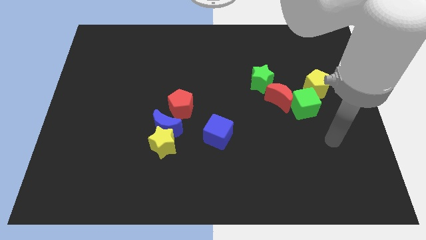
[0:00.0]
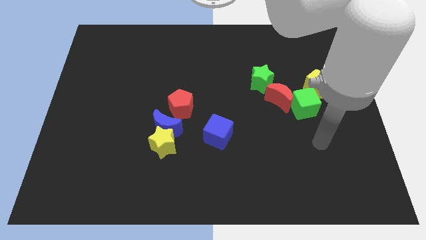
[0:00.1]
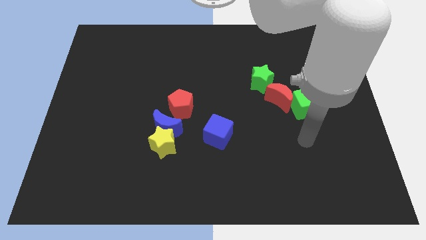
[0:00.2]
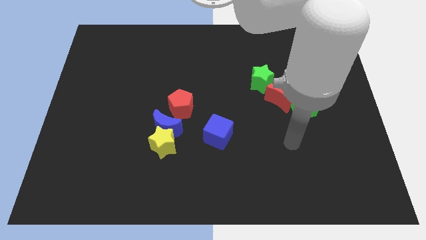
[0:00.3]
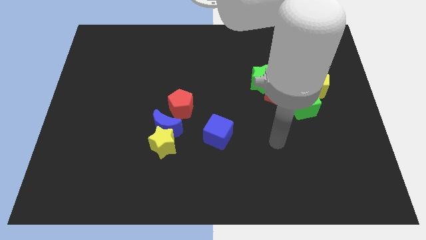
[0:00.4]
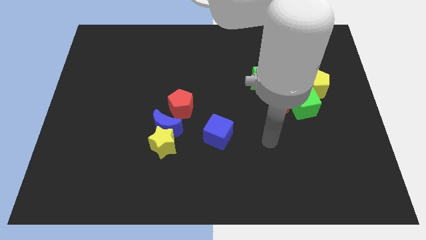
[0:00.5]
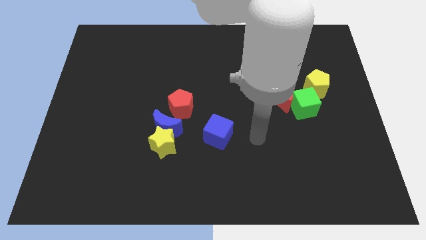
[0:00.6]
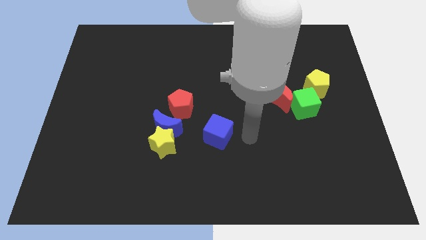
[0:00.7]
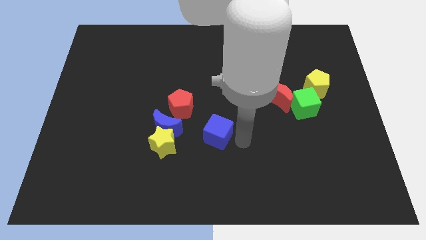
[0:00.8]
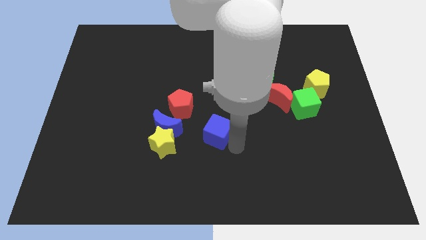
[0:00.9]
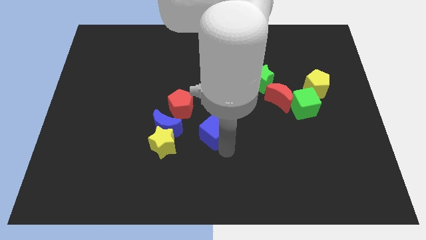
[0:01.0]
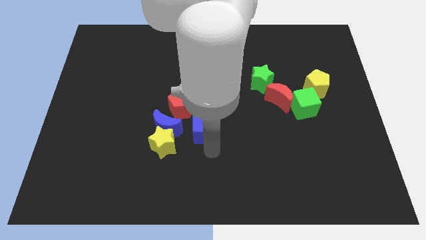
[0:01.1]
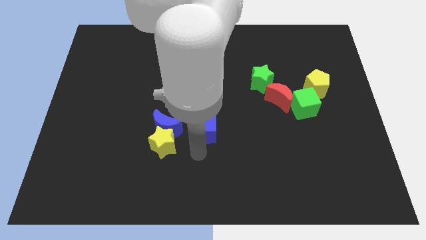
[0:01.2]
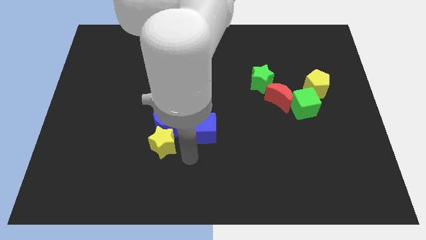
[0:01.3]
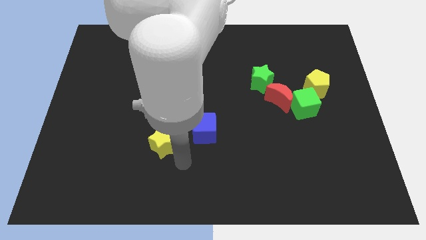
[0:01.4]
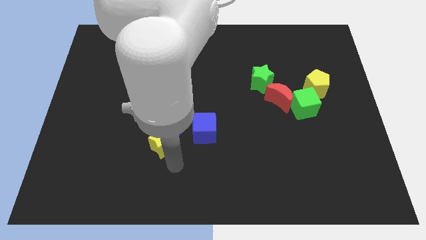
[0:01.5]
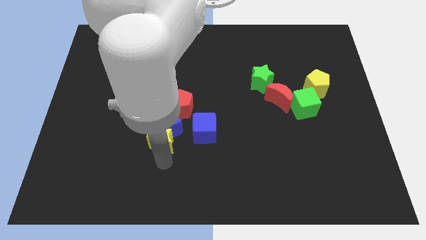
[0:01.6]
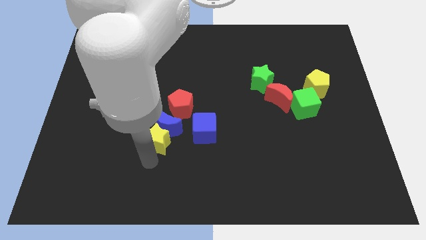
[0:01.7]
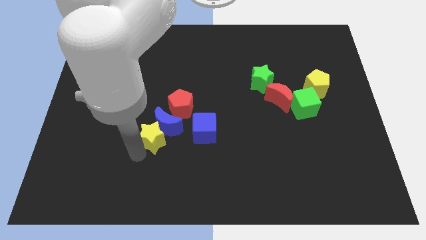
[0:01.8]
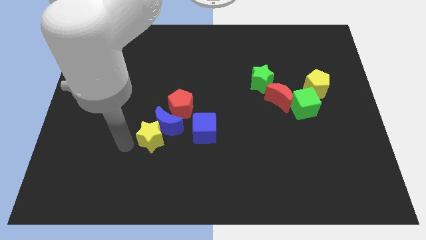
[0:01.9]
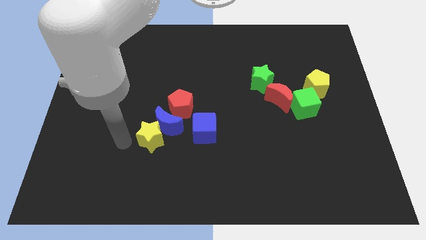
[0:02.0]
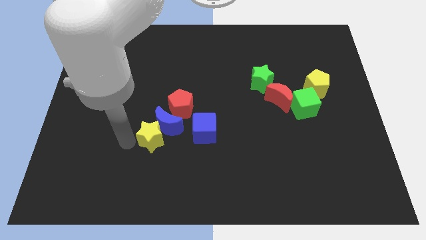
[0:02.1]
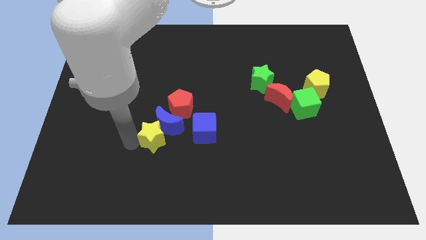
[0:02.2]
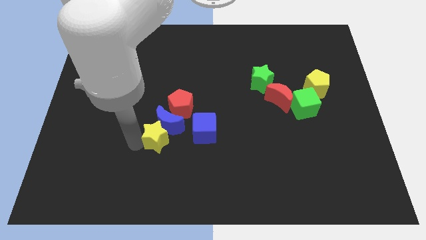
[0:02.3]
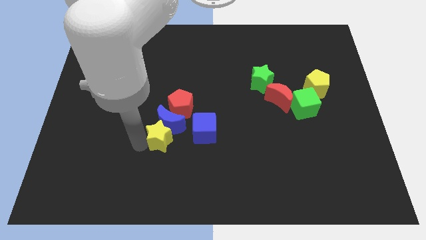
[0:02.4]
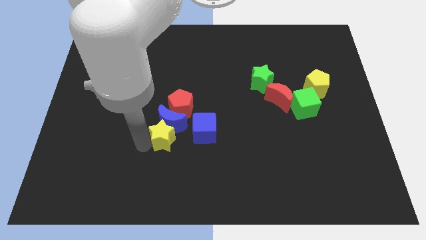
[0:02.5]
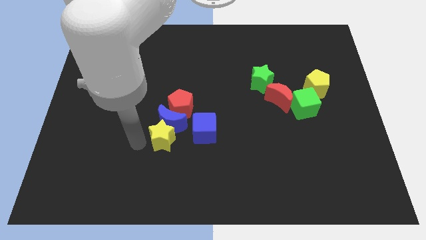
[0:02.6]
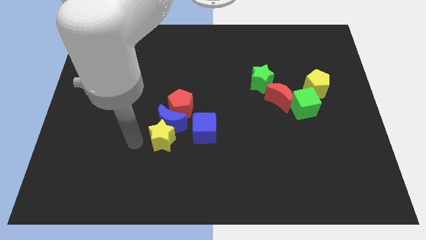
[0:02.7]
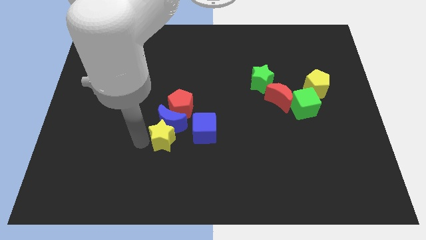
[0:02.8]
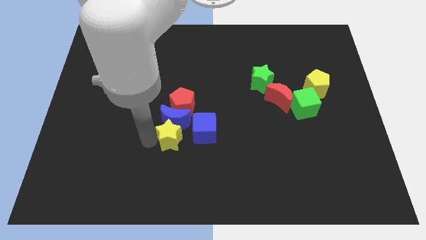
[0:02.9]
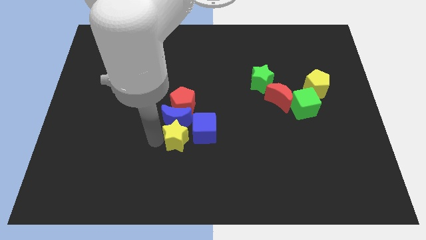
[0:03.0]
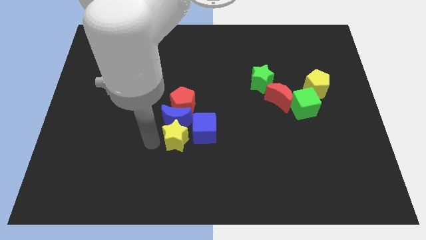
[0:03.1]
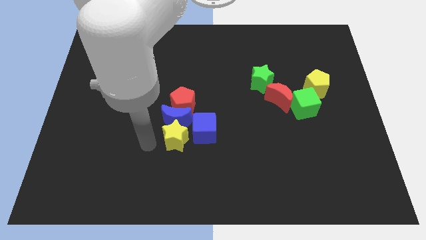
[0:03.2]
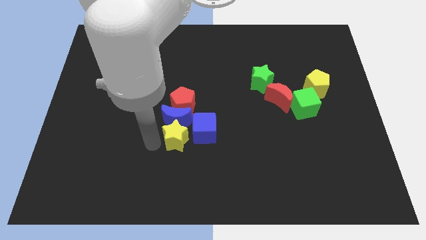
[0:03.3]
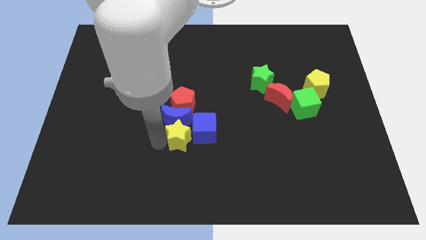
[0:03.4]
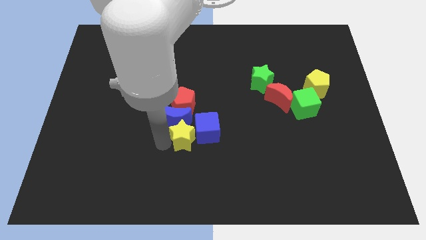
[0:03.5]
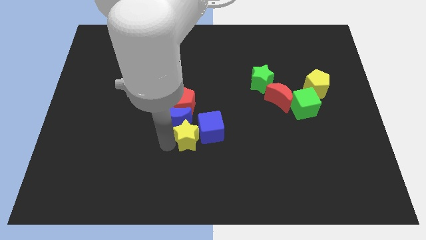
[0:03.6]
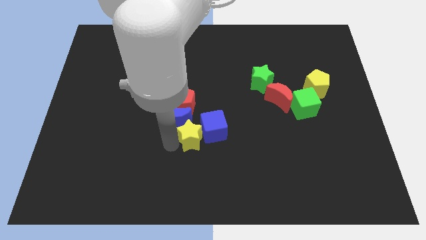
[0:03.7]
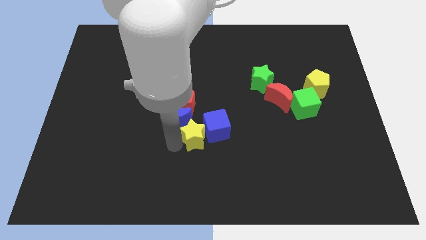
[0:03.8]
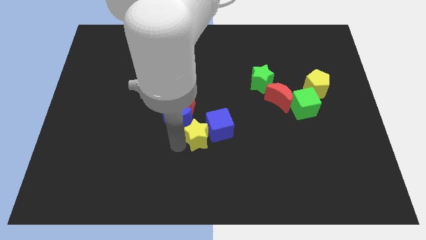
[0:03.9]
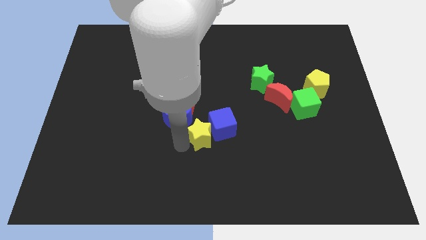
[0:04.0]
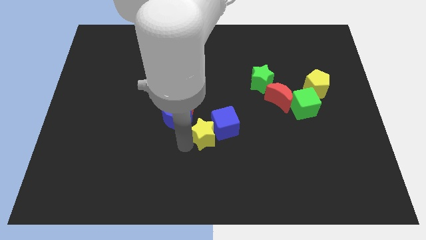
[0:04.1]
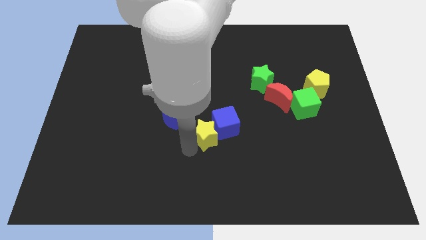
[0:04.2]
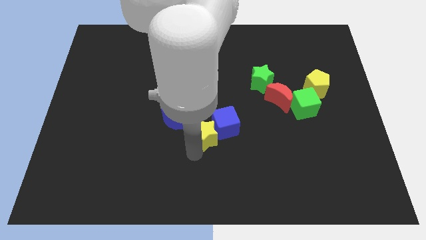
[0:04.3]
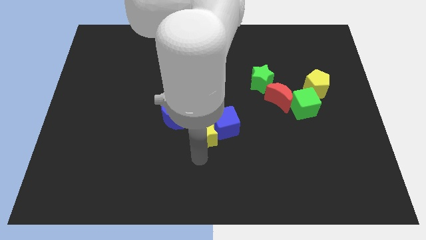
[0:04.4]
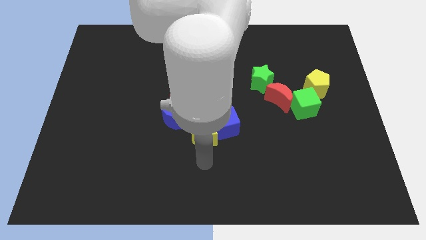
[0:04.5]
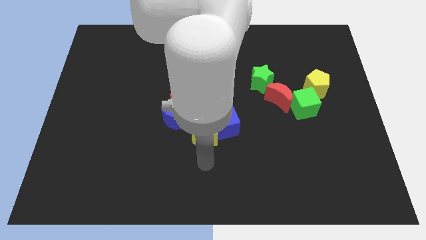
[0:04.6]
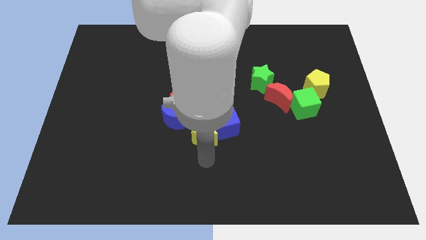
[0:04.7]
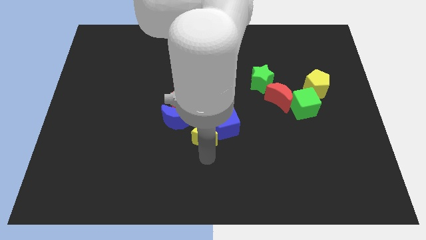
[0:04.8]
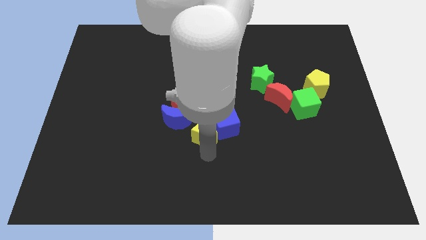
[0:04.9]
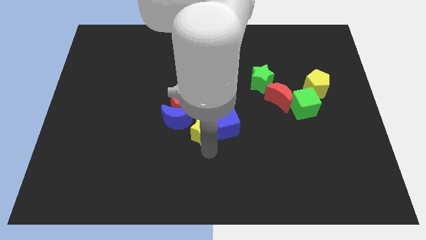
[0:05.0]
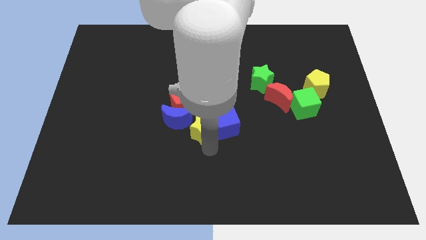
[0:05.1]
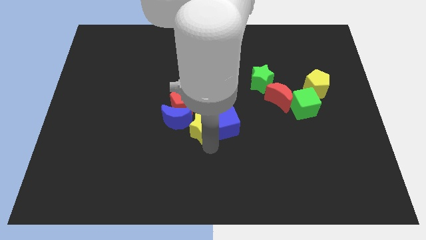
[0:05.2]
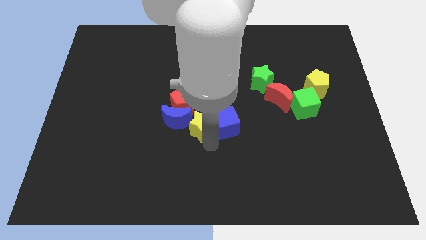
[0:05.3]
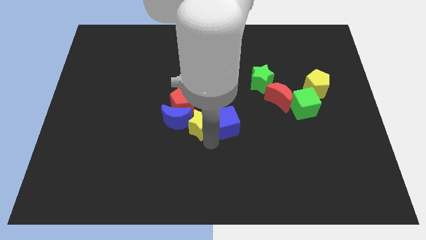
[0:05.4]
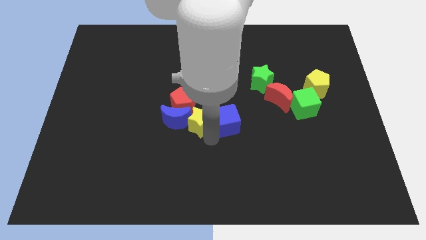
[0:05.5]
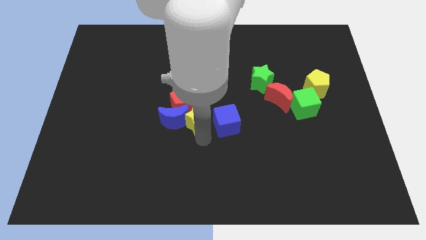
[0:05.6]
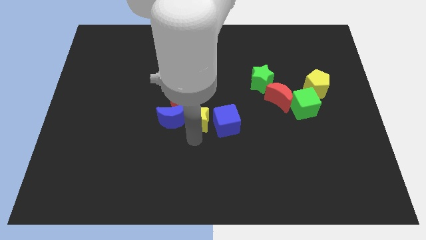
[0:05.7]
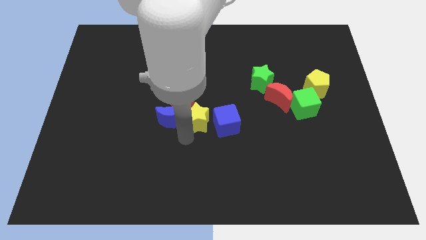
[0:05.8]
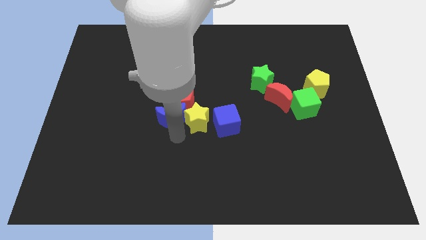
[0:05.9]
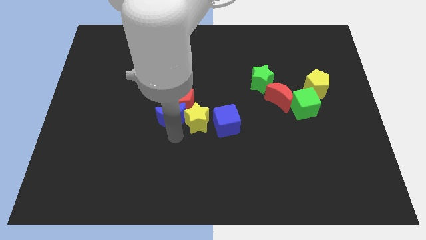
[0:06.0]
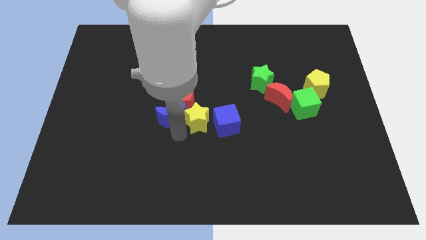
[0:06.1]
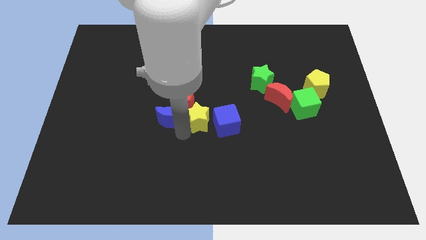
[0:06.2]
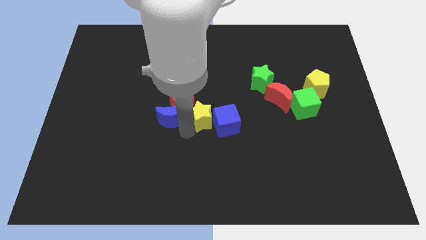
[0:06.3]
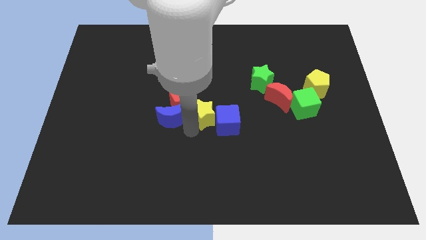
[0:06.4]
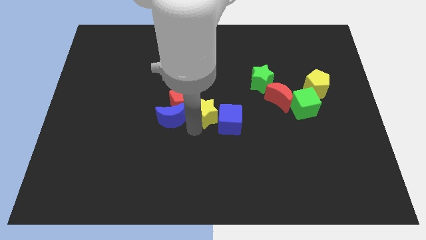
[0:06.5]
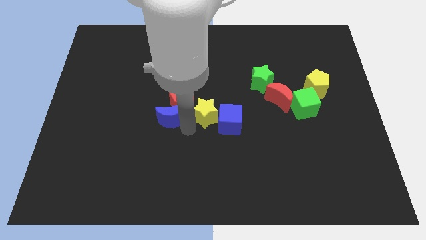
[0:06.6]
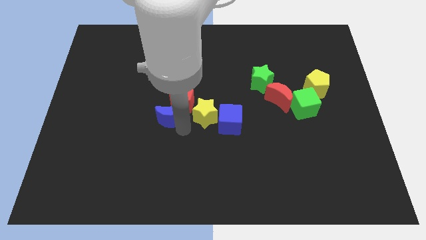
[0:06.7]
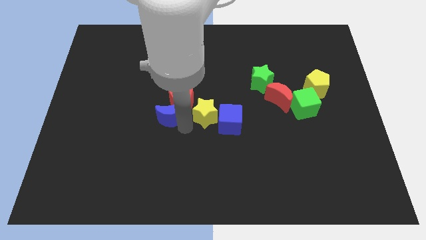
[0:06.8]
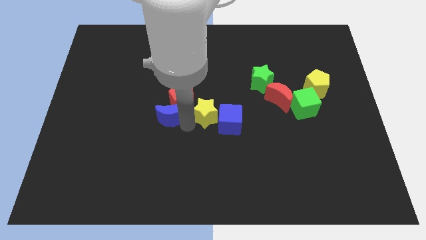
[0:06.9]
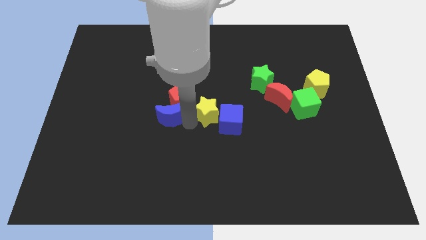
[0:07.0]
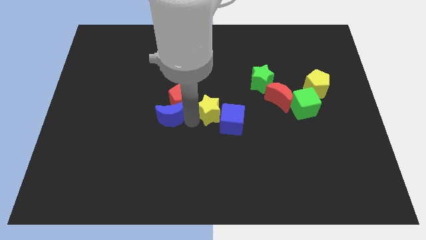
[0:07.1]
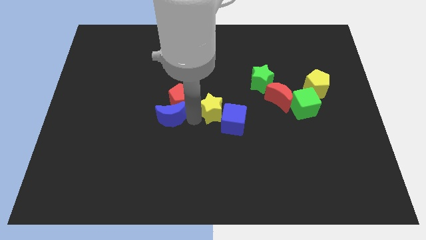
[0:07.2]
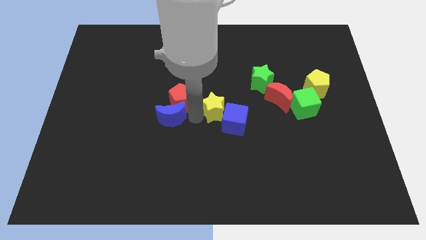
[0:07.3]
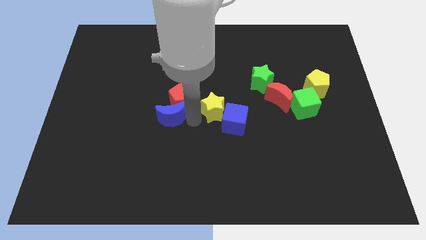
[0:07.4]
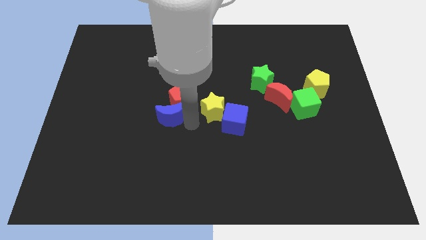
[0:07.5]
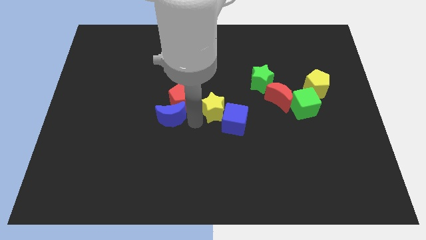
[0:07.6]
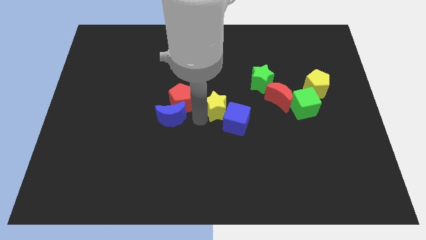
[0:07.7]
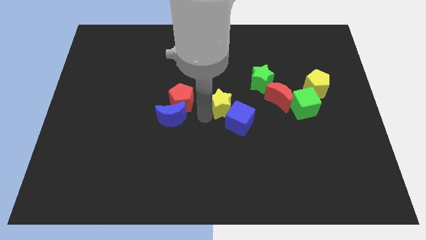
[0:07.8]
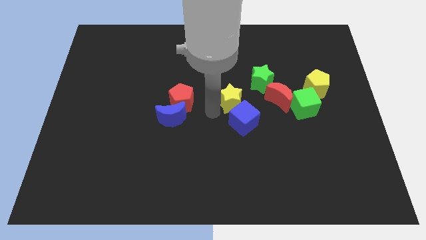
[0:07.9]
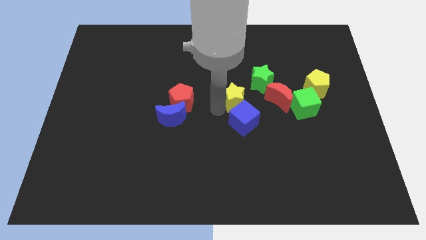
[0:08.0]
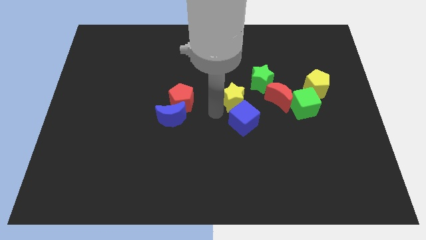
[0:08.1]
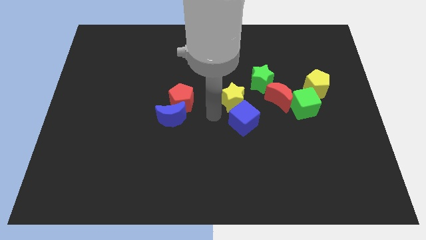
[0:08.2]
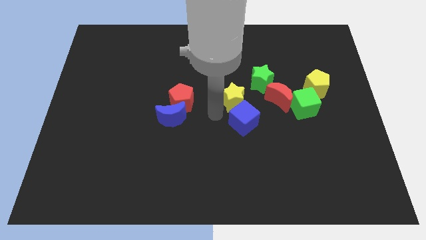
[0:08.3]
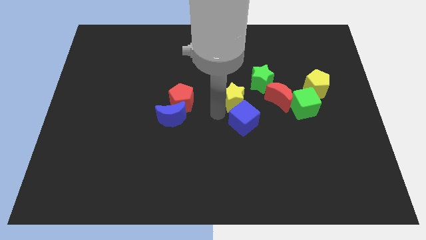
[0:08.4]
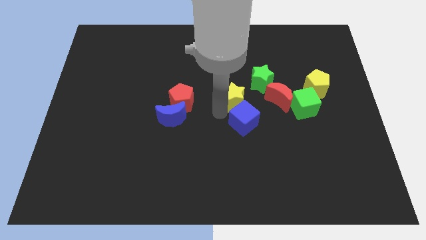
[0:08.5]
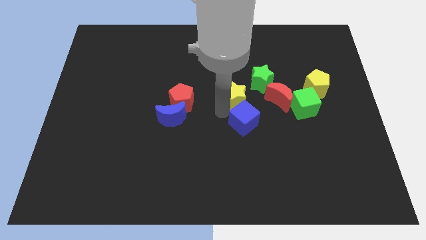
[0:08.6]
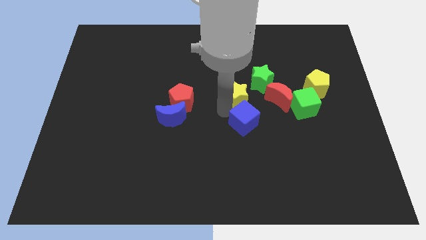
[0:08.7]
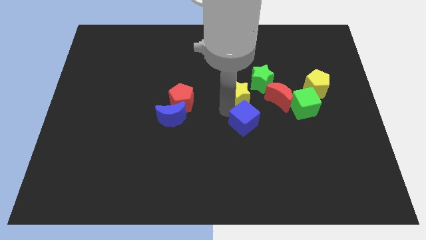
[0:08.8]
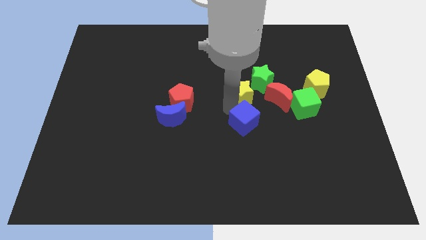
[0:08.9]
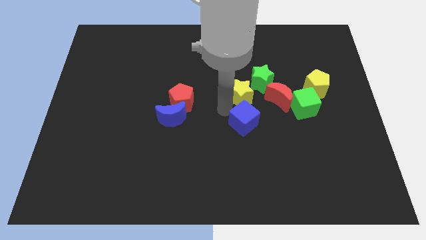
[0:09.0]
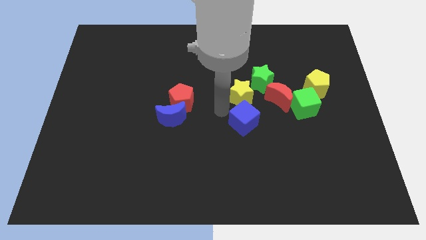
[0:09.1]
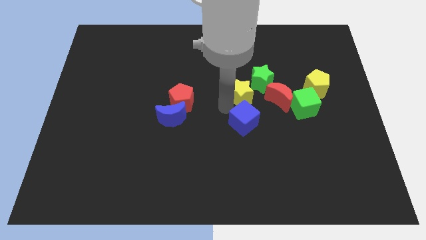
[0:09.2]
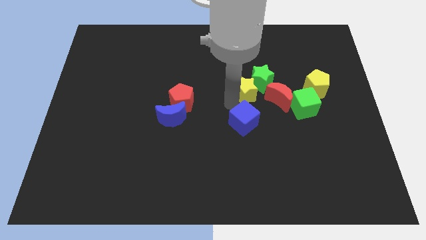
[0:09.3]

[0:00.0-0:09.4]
slide the yellow star next to the green star
